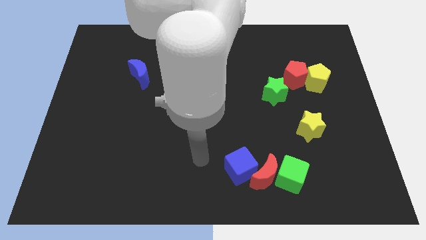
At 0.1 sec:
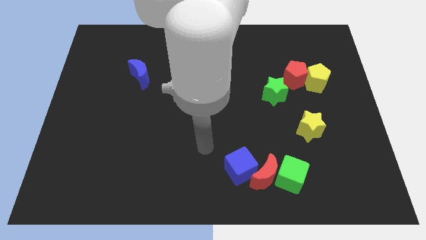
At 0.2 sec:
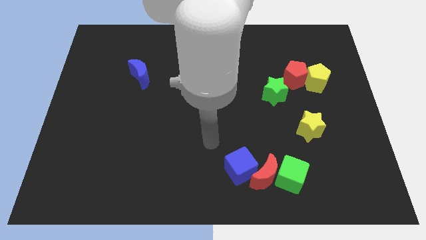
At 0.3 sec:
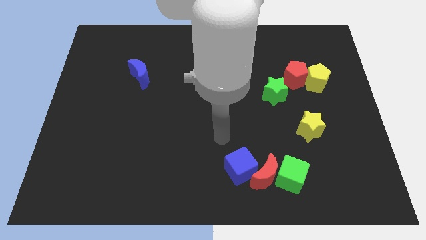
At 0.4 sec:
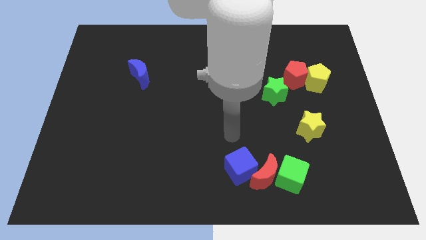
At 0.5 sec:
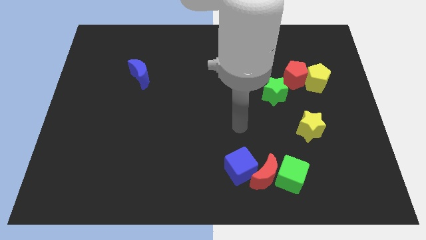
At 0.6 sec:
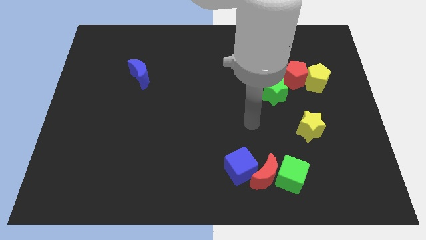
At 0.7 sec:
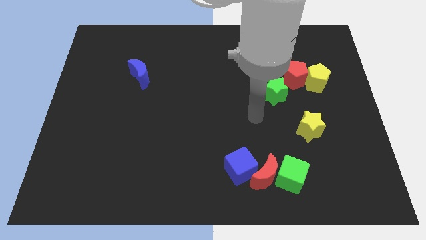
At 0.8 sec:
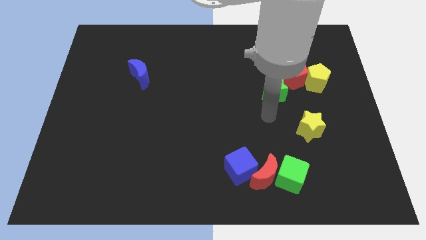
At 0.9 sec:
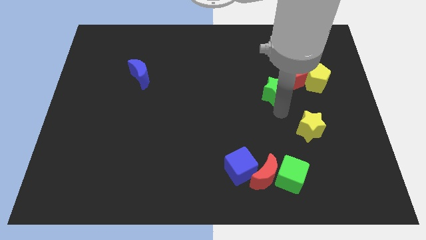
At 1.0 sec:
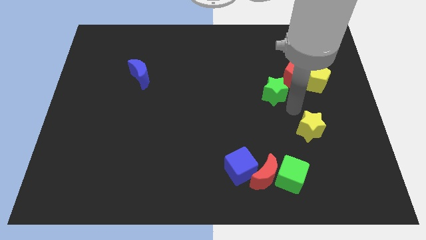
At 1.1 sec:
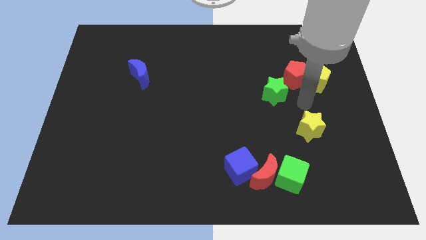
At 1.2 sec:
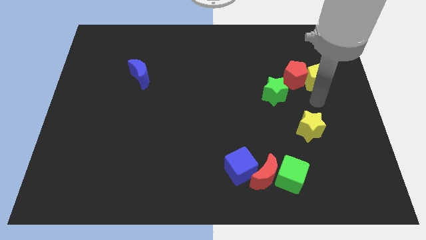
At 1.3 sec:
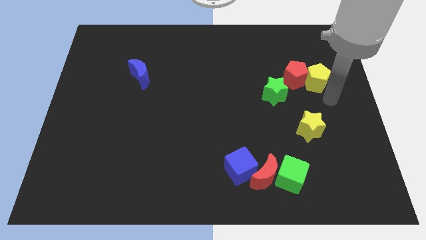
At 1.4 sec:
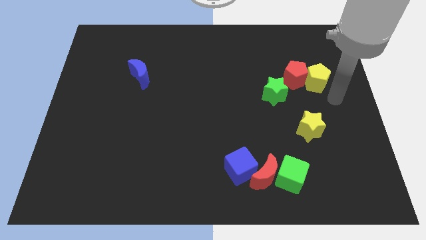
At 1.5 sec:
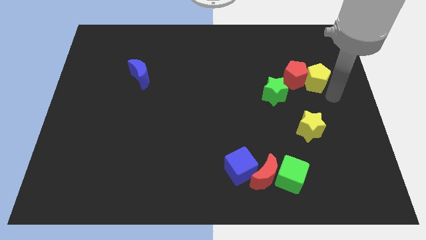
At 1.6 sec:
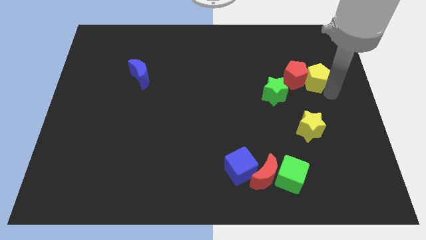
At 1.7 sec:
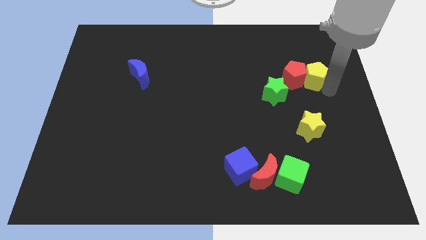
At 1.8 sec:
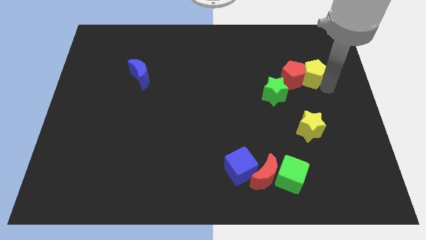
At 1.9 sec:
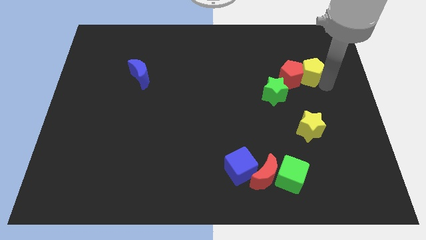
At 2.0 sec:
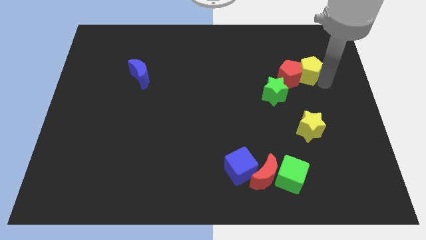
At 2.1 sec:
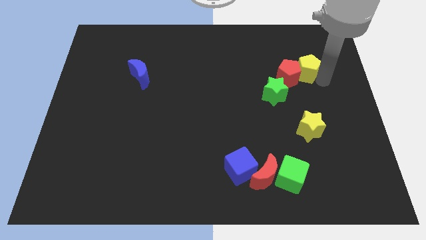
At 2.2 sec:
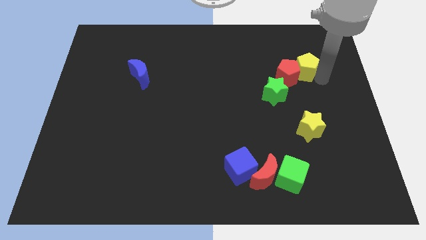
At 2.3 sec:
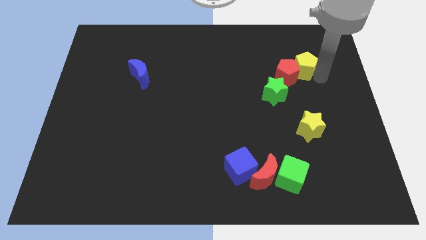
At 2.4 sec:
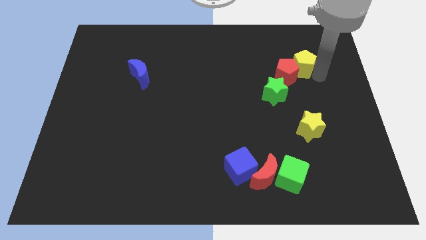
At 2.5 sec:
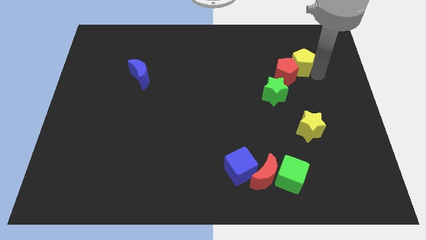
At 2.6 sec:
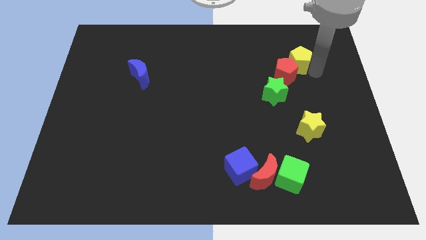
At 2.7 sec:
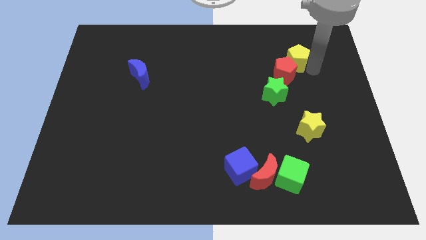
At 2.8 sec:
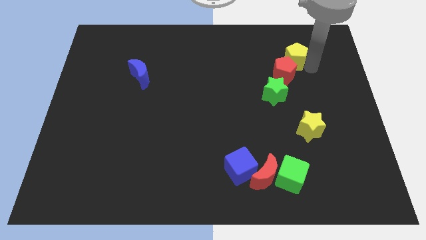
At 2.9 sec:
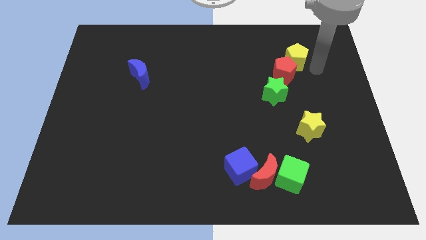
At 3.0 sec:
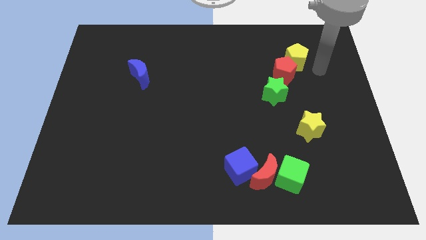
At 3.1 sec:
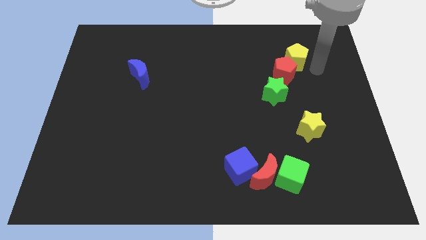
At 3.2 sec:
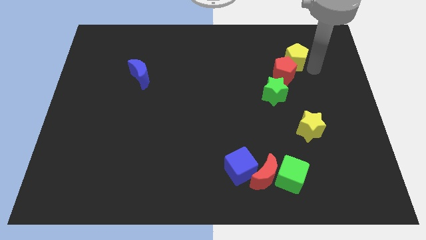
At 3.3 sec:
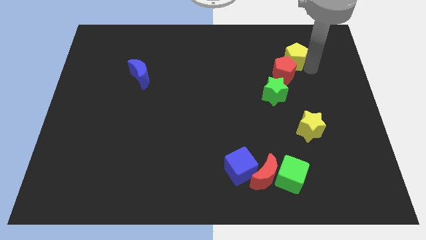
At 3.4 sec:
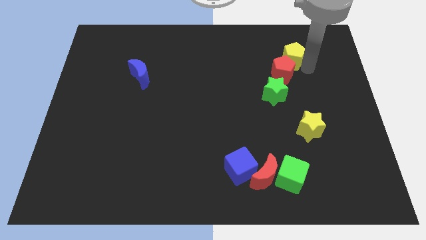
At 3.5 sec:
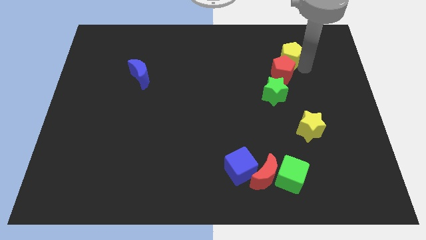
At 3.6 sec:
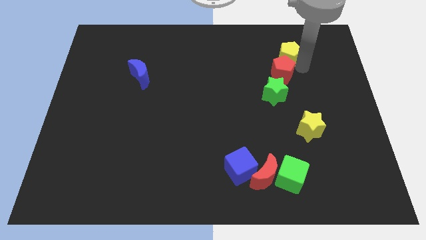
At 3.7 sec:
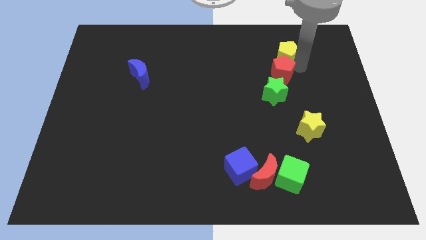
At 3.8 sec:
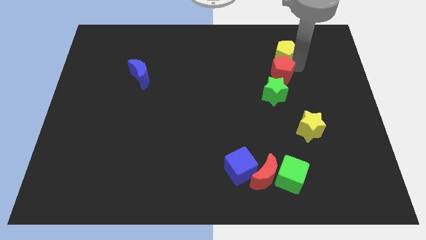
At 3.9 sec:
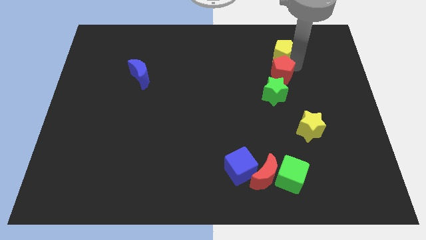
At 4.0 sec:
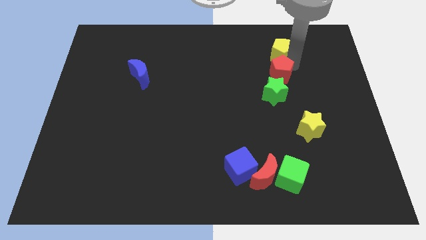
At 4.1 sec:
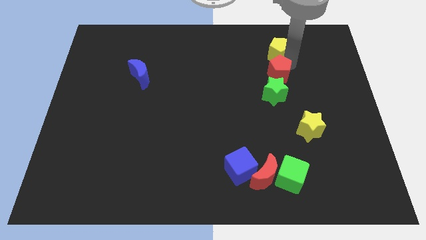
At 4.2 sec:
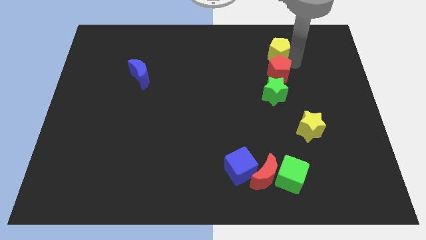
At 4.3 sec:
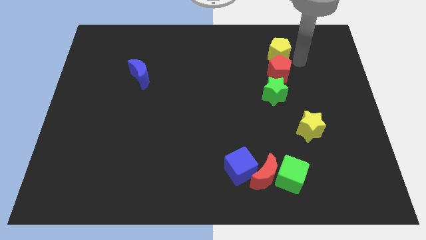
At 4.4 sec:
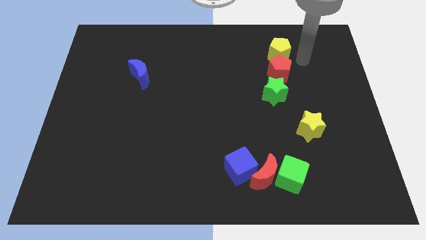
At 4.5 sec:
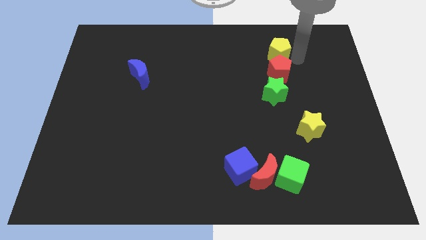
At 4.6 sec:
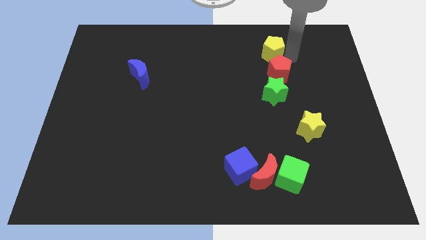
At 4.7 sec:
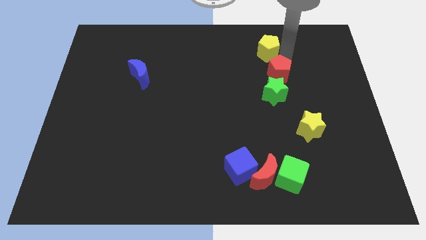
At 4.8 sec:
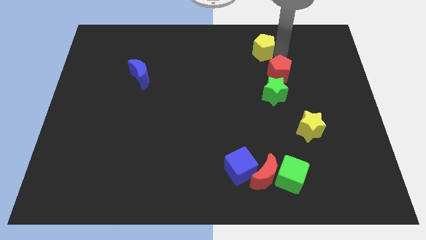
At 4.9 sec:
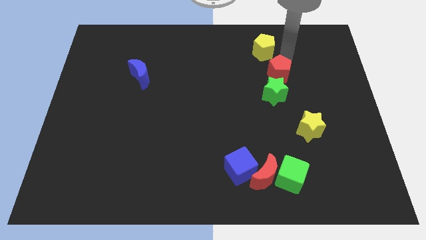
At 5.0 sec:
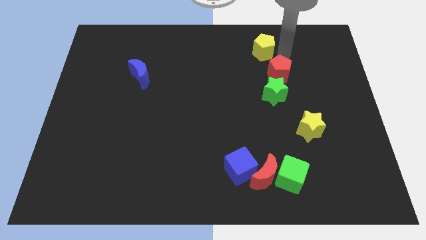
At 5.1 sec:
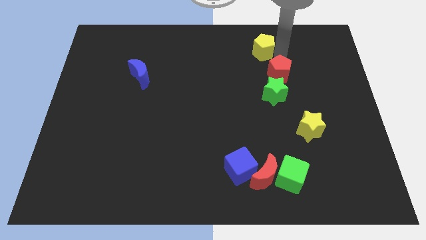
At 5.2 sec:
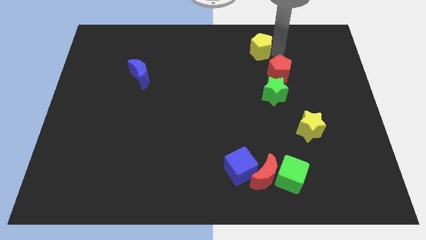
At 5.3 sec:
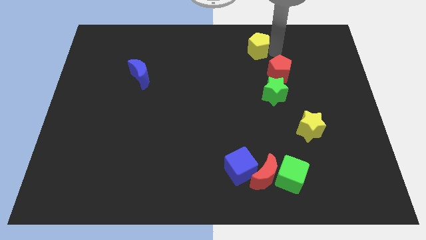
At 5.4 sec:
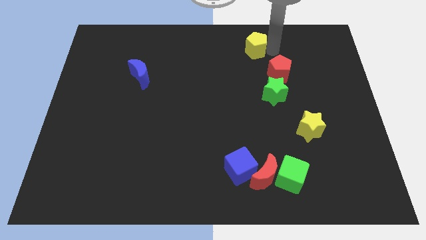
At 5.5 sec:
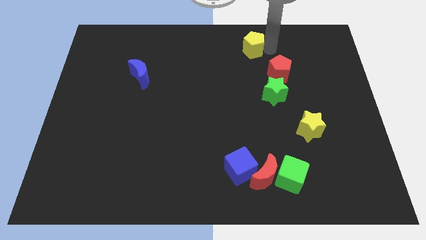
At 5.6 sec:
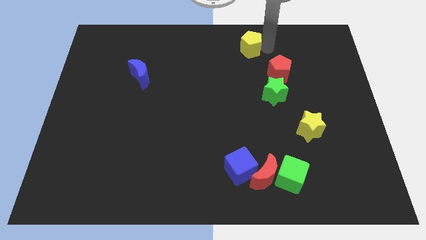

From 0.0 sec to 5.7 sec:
put the yellow pentagon to the top

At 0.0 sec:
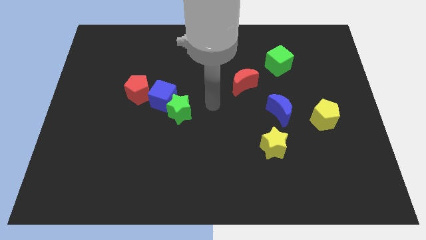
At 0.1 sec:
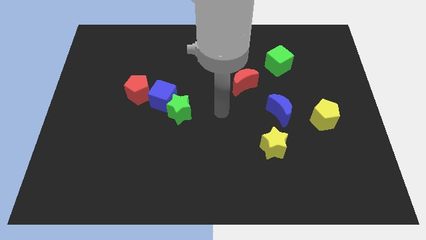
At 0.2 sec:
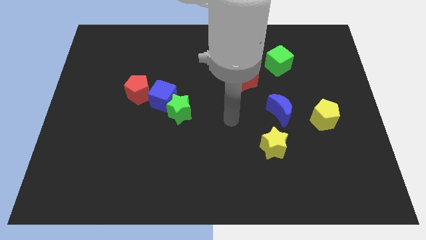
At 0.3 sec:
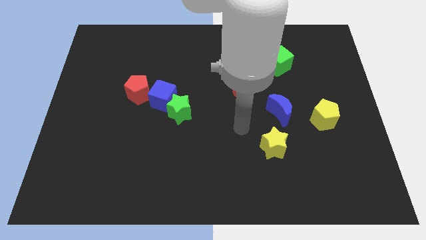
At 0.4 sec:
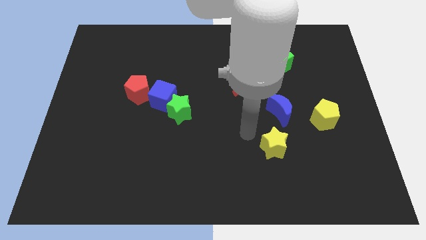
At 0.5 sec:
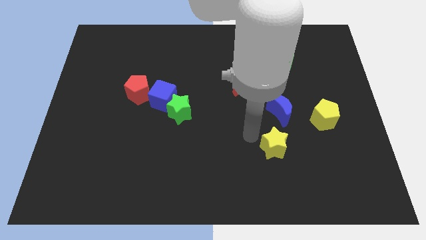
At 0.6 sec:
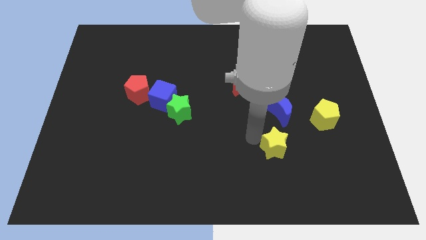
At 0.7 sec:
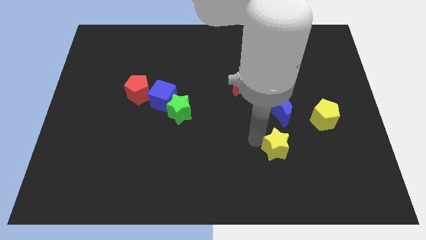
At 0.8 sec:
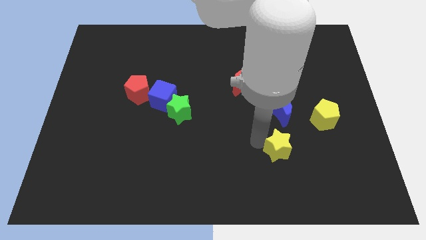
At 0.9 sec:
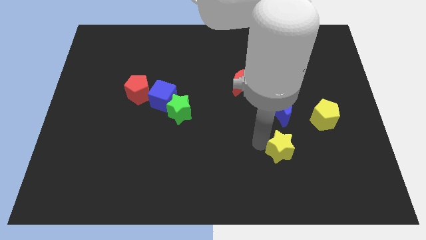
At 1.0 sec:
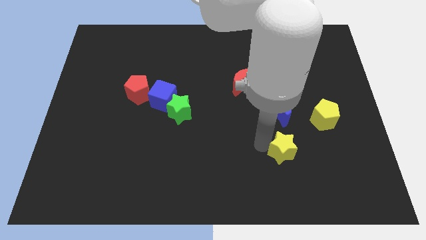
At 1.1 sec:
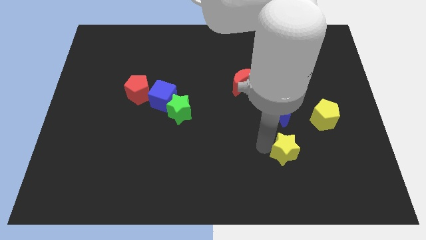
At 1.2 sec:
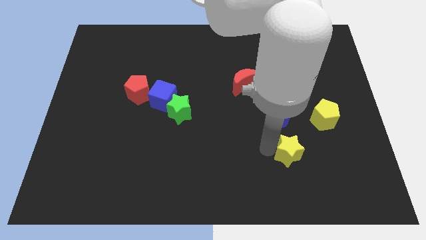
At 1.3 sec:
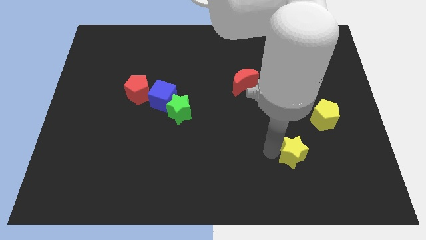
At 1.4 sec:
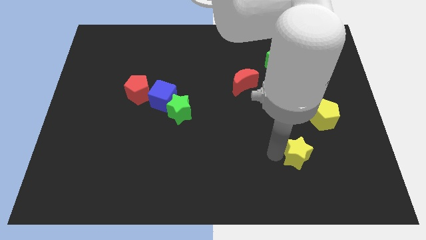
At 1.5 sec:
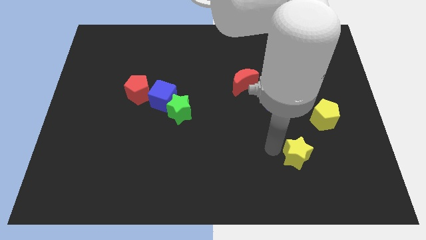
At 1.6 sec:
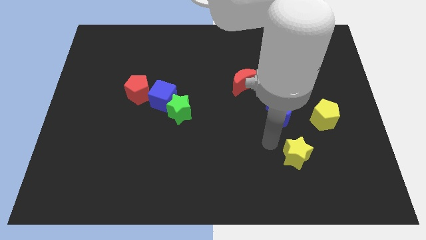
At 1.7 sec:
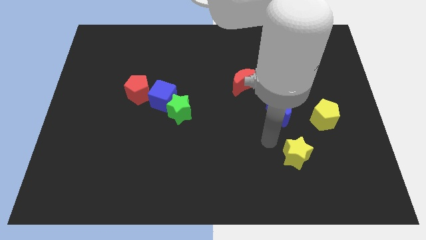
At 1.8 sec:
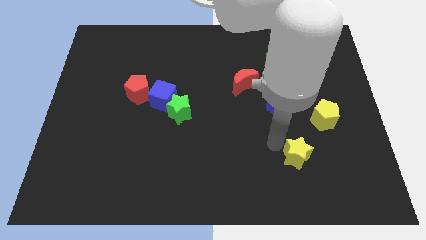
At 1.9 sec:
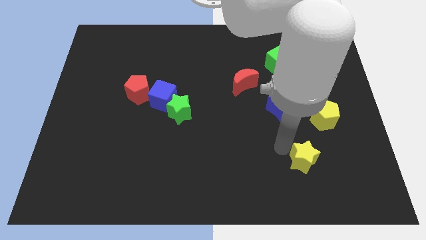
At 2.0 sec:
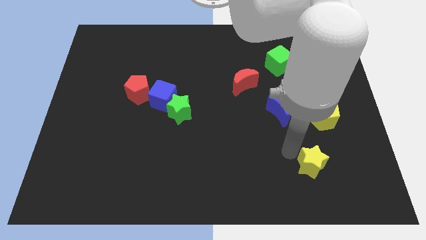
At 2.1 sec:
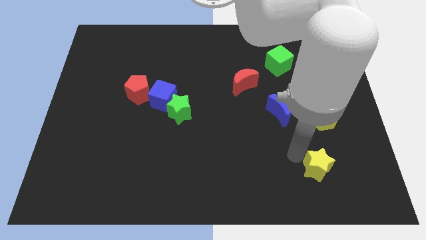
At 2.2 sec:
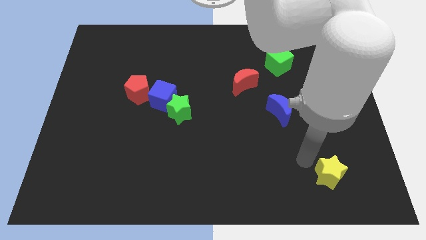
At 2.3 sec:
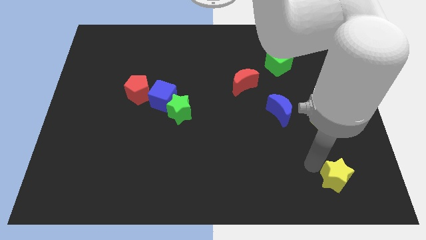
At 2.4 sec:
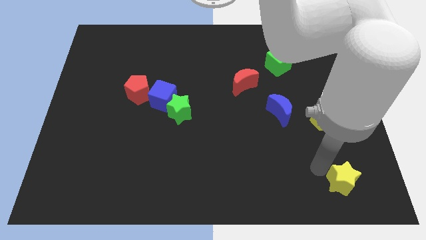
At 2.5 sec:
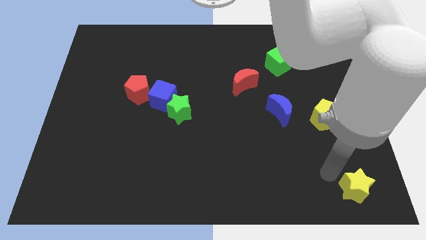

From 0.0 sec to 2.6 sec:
put the yellow star to the bottom right
